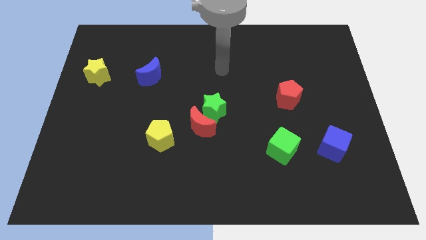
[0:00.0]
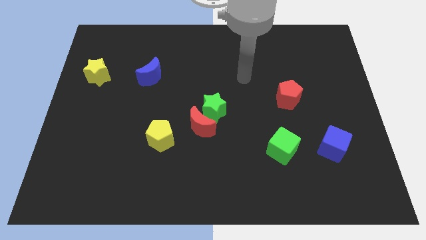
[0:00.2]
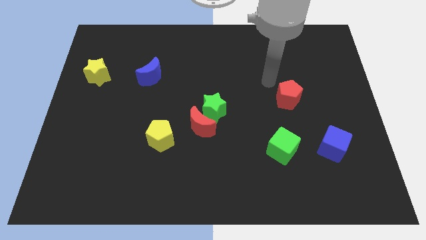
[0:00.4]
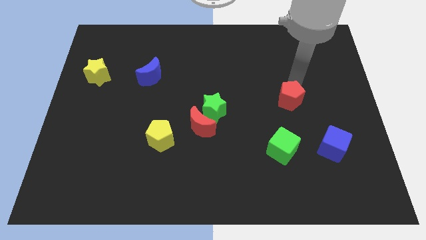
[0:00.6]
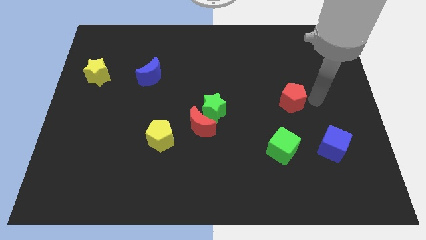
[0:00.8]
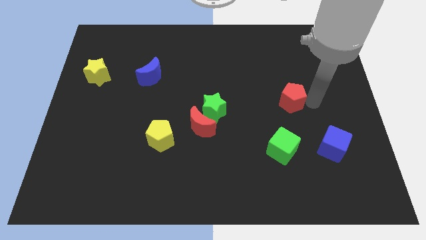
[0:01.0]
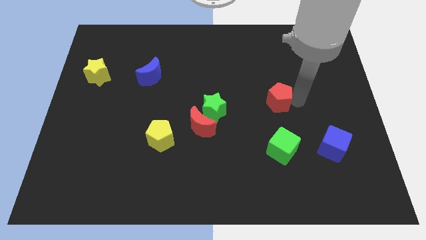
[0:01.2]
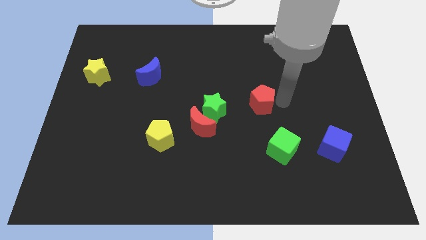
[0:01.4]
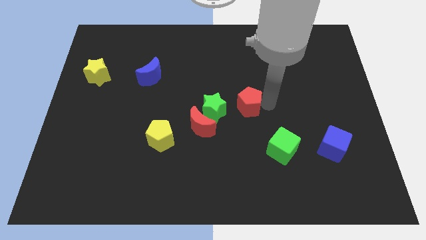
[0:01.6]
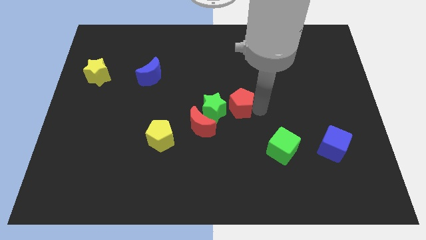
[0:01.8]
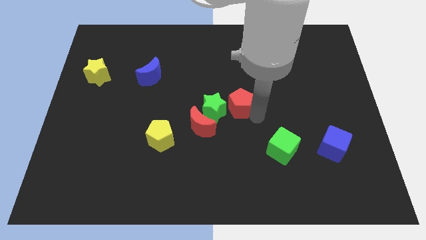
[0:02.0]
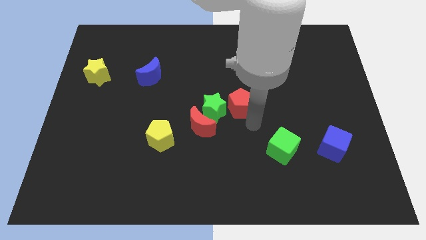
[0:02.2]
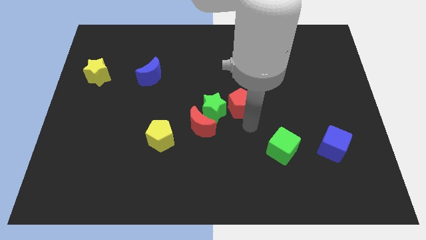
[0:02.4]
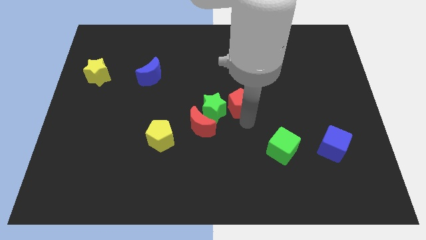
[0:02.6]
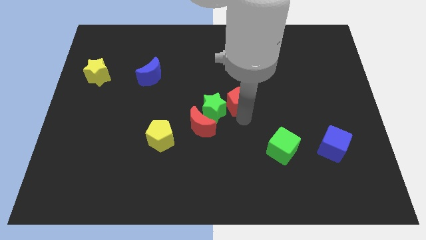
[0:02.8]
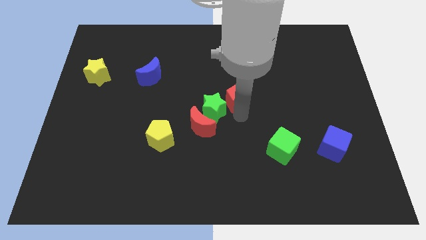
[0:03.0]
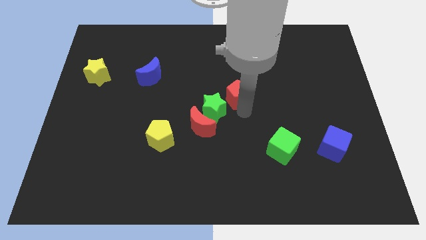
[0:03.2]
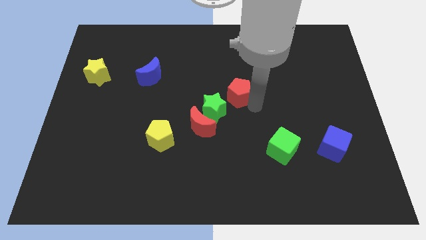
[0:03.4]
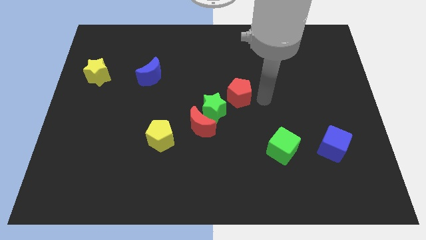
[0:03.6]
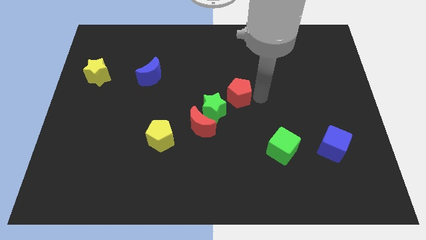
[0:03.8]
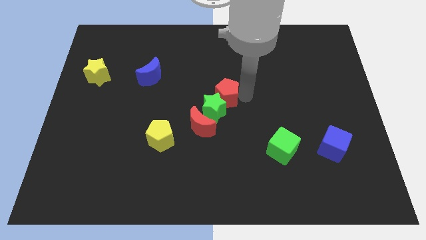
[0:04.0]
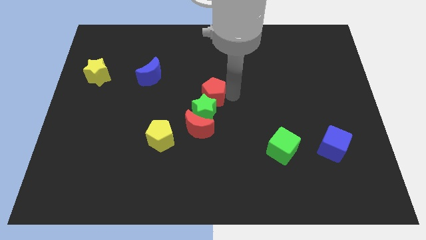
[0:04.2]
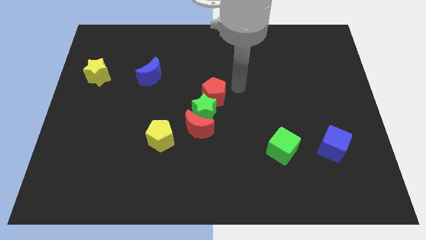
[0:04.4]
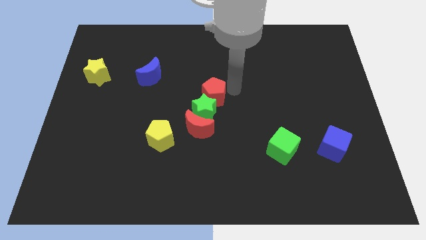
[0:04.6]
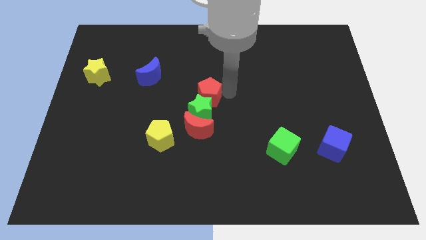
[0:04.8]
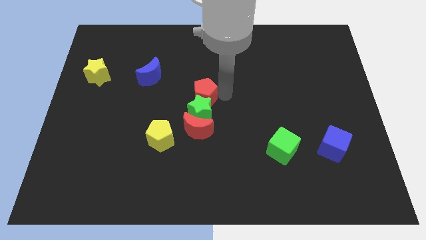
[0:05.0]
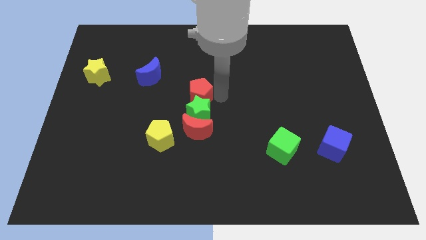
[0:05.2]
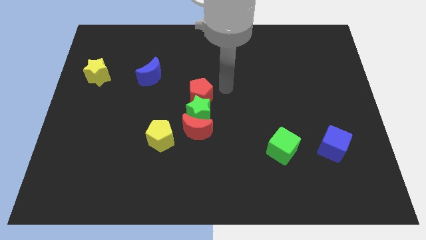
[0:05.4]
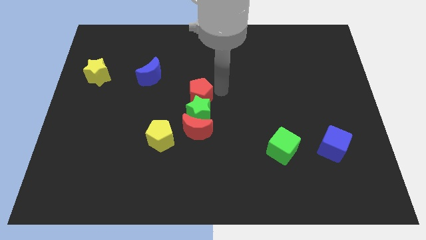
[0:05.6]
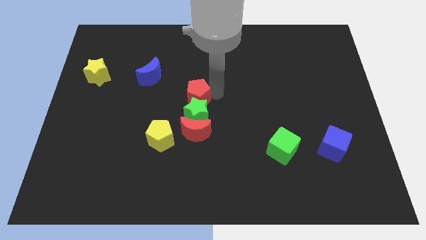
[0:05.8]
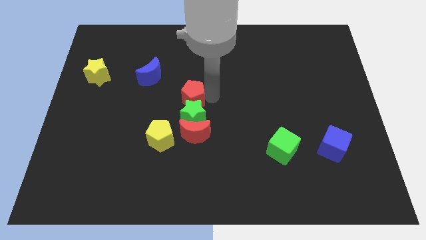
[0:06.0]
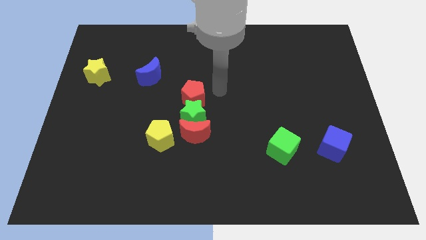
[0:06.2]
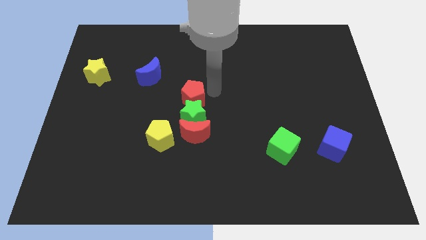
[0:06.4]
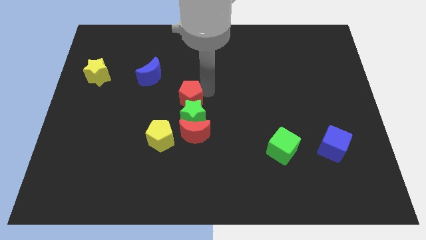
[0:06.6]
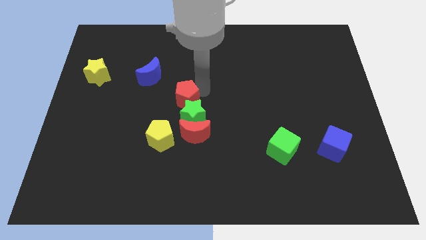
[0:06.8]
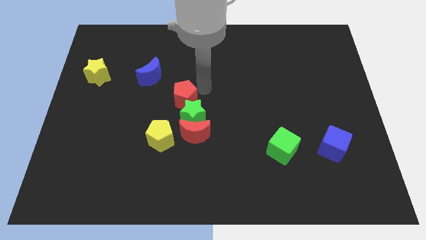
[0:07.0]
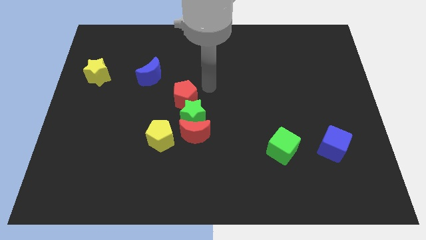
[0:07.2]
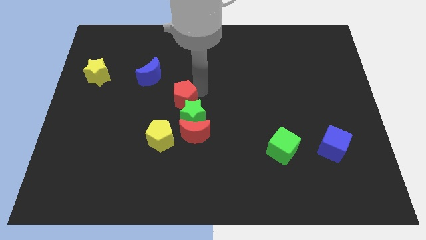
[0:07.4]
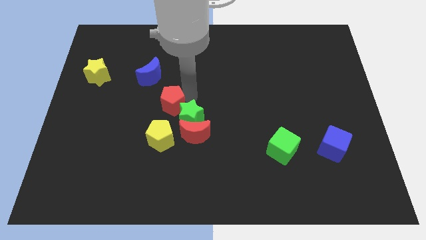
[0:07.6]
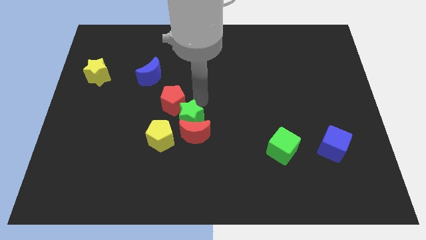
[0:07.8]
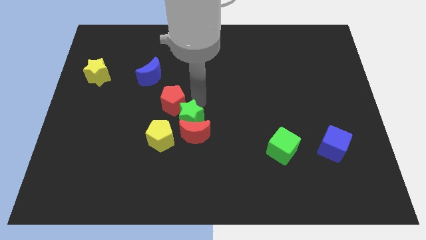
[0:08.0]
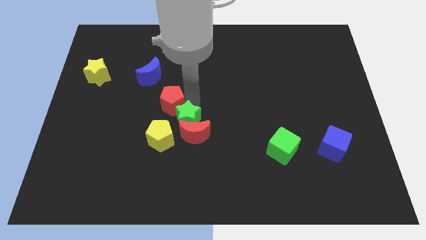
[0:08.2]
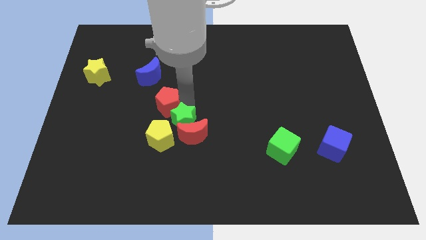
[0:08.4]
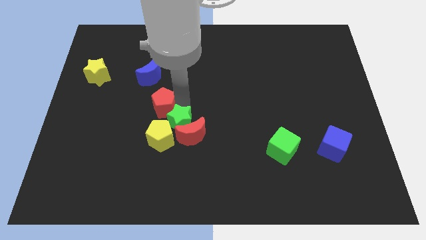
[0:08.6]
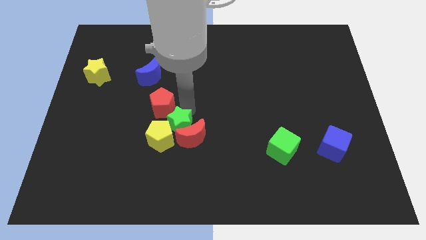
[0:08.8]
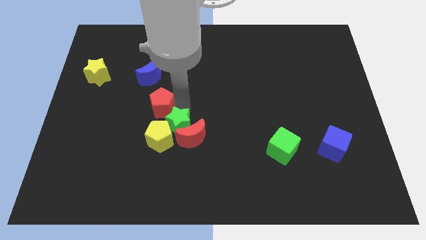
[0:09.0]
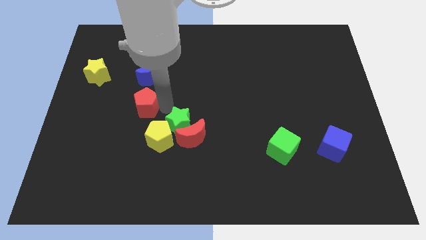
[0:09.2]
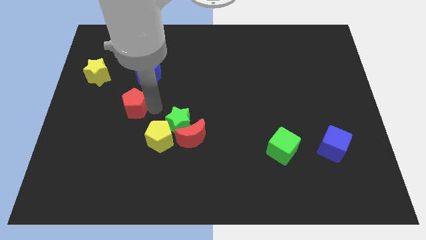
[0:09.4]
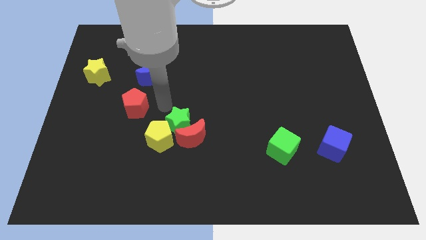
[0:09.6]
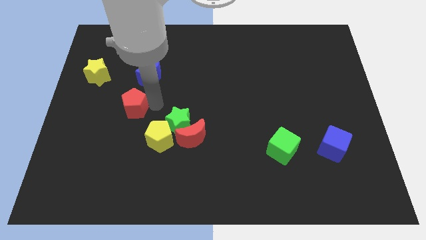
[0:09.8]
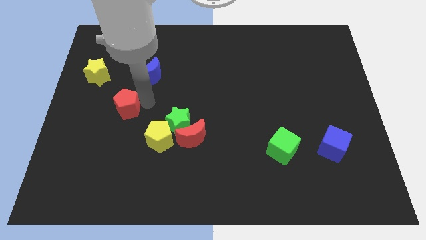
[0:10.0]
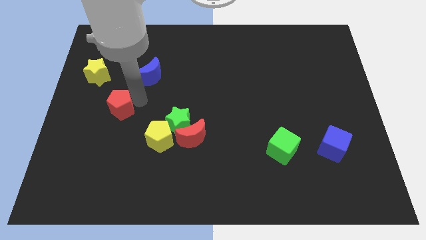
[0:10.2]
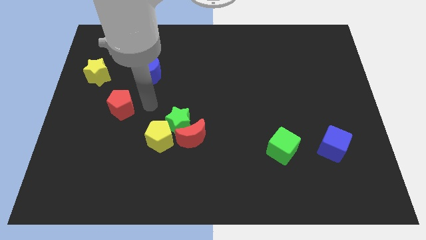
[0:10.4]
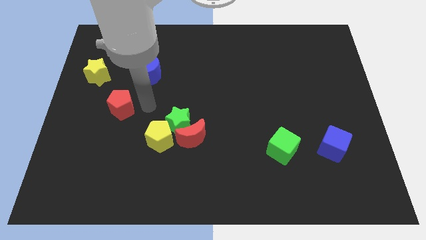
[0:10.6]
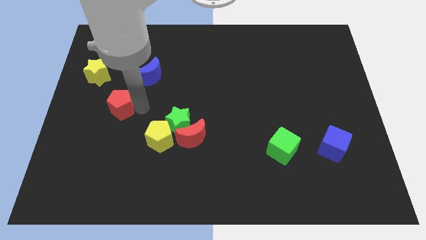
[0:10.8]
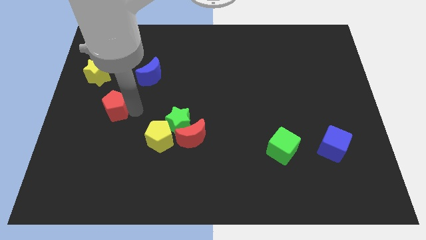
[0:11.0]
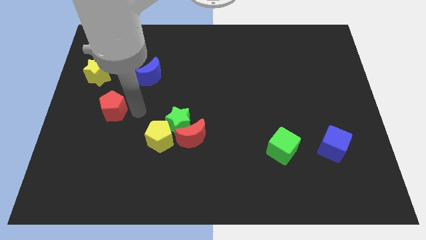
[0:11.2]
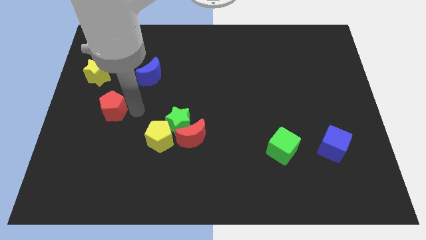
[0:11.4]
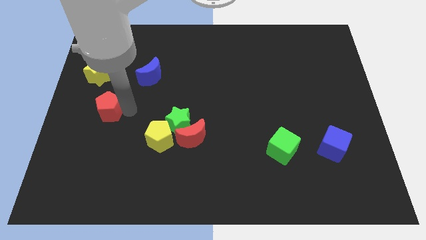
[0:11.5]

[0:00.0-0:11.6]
push the red pentagon to the bottom of the yellow star

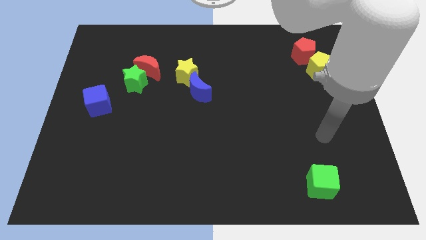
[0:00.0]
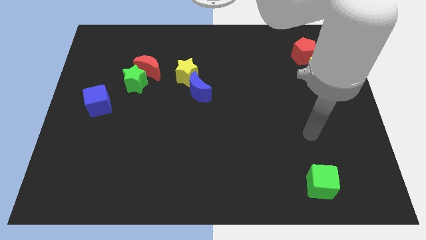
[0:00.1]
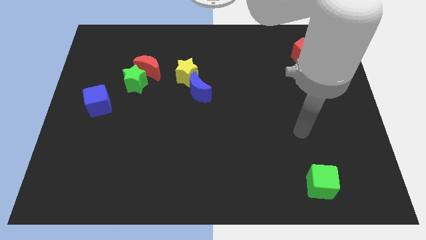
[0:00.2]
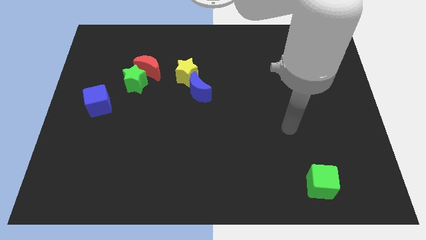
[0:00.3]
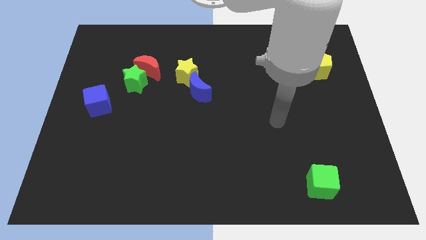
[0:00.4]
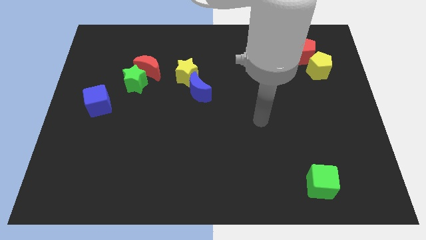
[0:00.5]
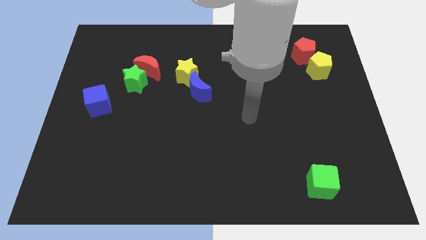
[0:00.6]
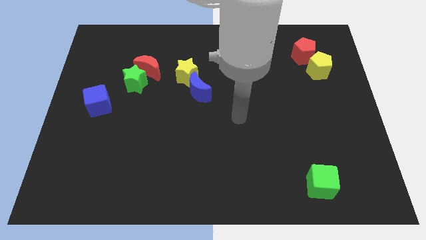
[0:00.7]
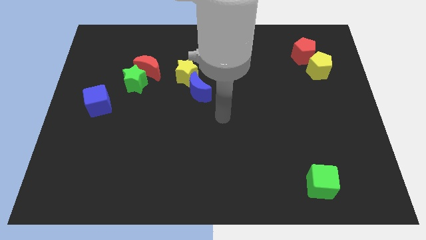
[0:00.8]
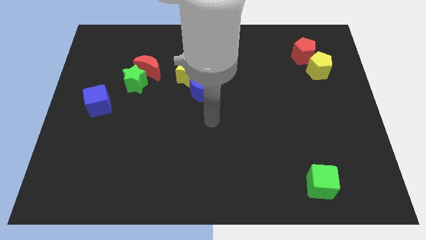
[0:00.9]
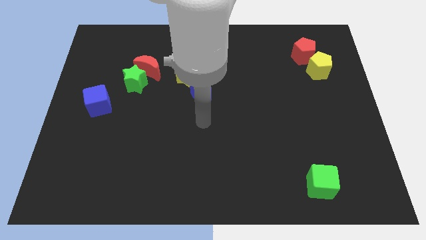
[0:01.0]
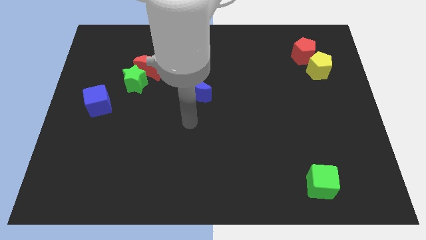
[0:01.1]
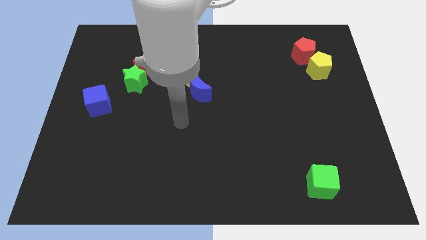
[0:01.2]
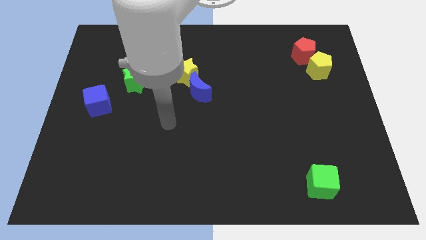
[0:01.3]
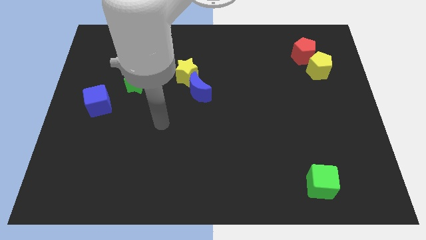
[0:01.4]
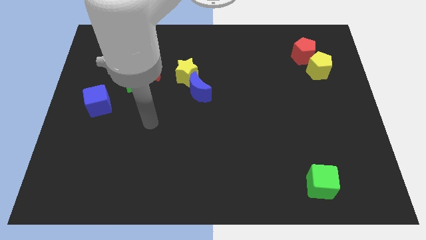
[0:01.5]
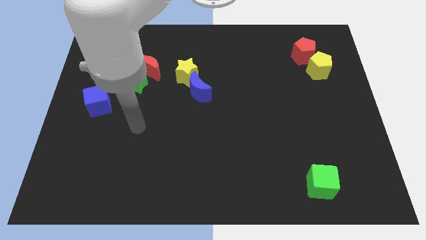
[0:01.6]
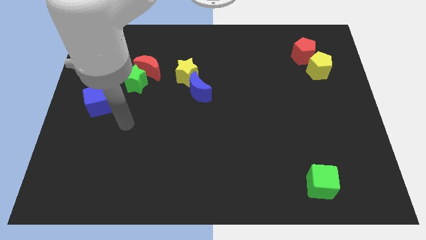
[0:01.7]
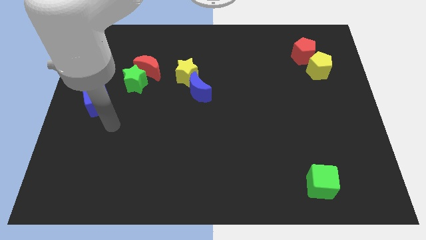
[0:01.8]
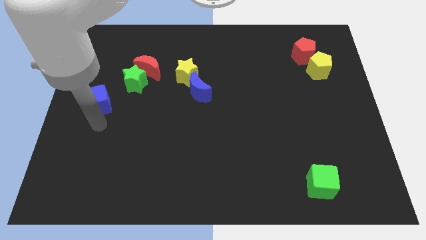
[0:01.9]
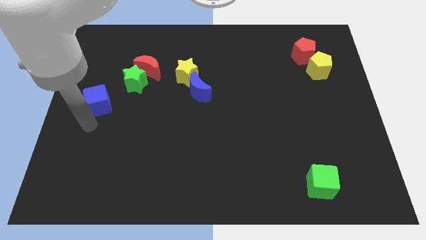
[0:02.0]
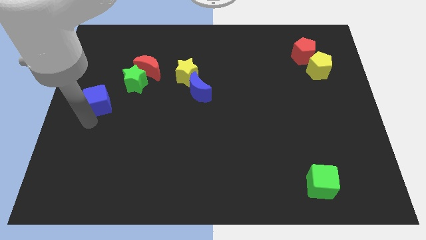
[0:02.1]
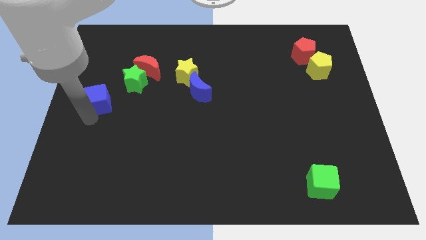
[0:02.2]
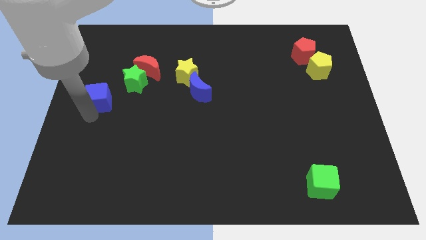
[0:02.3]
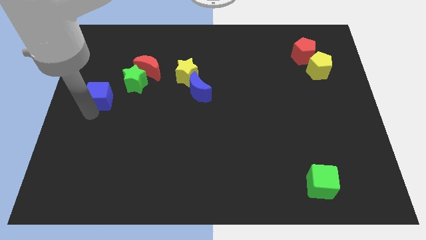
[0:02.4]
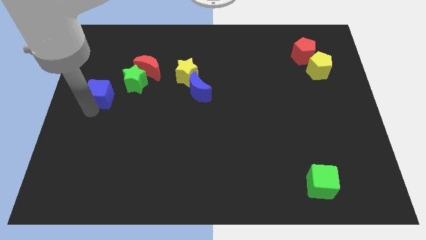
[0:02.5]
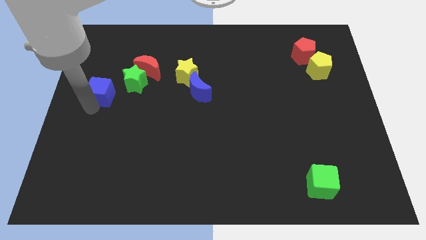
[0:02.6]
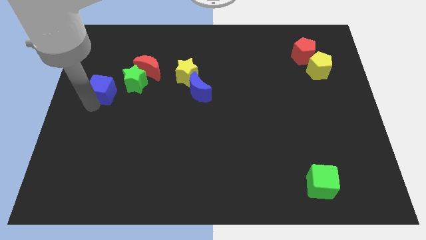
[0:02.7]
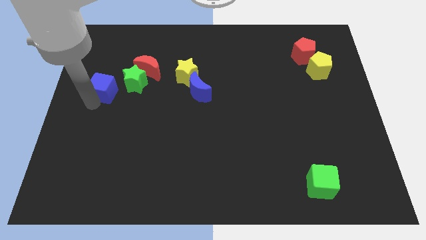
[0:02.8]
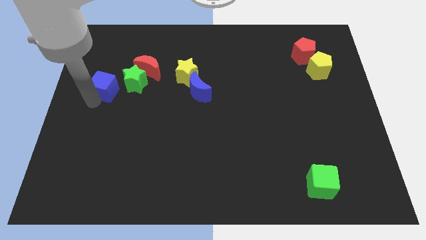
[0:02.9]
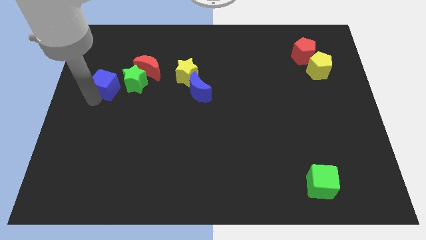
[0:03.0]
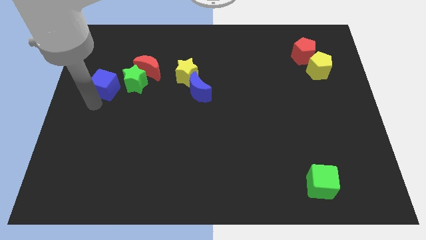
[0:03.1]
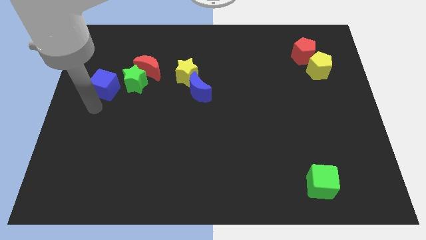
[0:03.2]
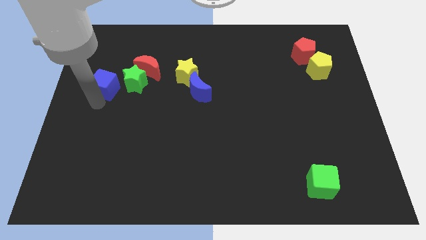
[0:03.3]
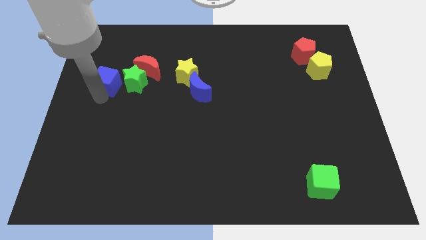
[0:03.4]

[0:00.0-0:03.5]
slide the blue cube to the top left of the green star
